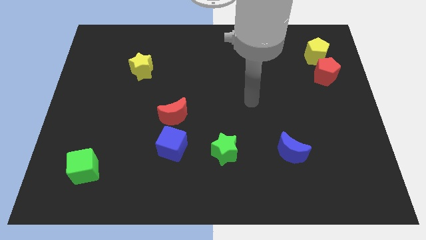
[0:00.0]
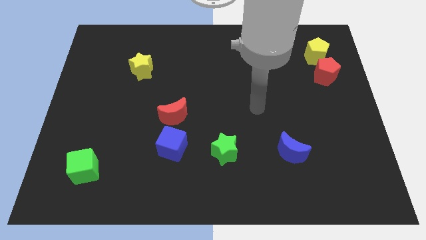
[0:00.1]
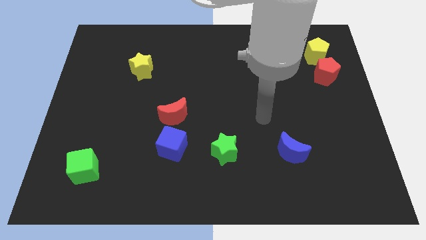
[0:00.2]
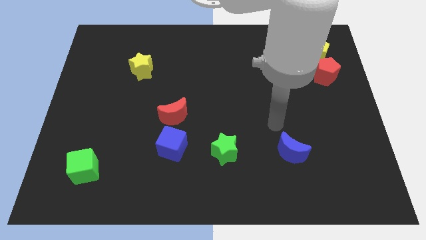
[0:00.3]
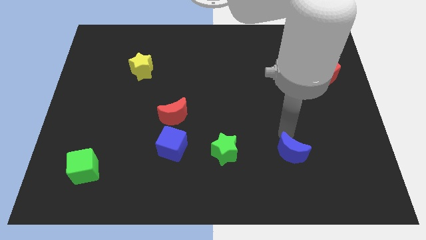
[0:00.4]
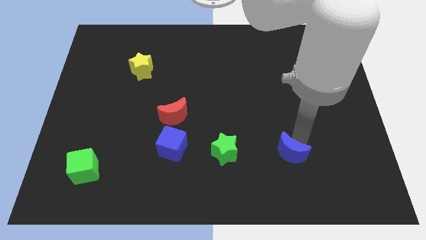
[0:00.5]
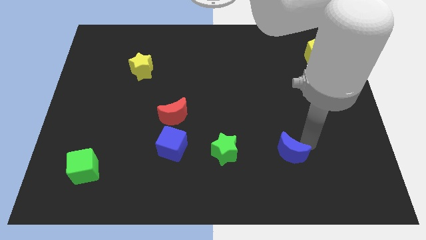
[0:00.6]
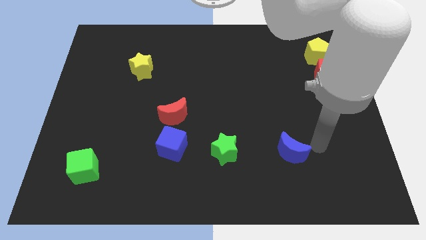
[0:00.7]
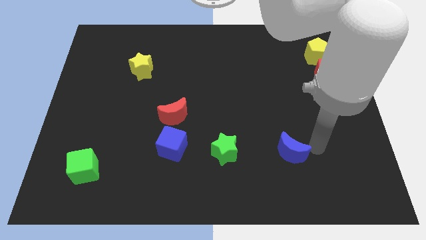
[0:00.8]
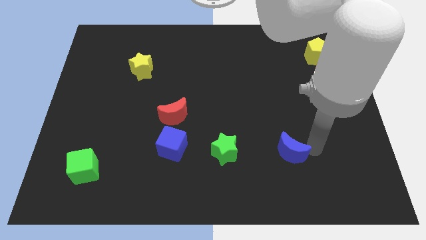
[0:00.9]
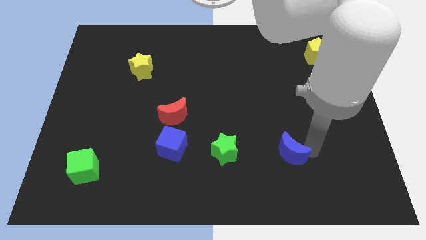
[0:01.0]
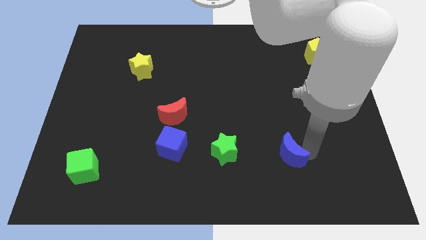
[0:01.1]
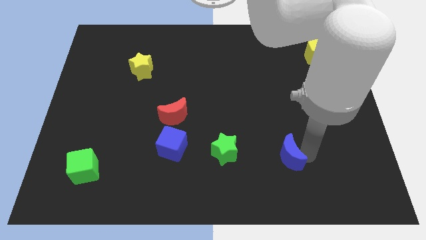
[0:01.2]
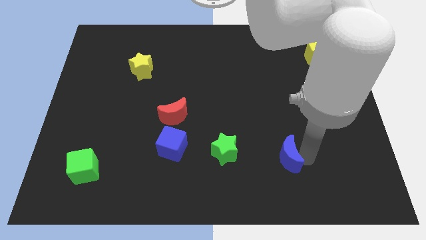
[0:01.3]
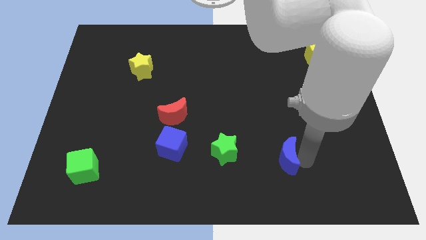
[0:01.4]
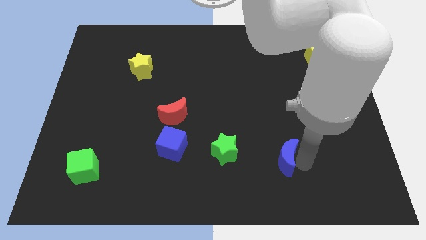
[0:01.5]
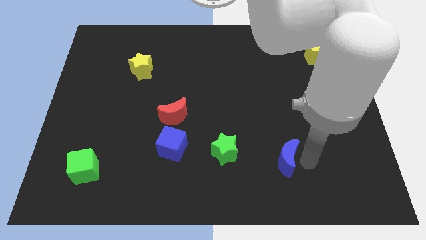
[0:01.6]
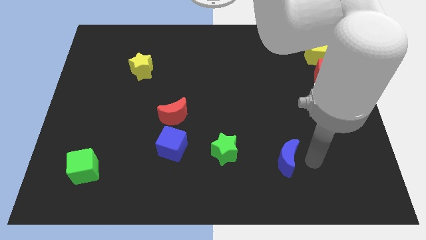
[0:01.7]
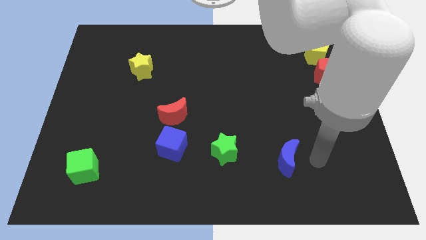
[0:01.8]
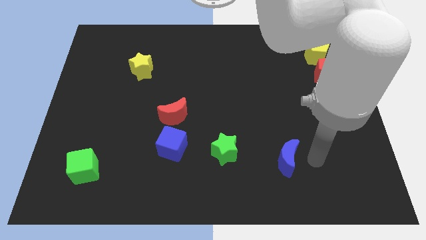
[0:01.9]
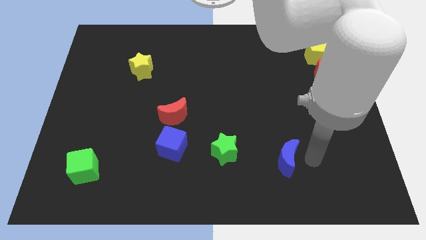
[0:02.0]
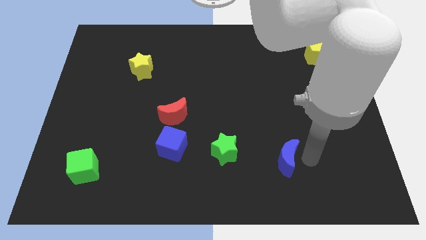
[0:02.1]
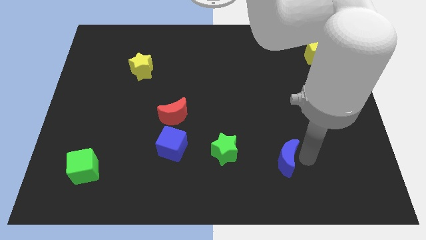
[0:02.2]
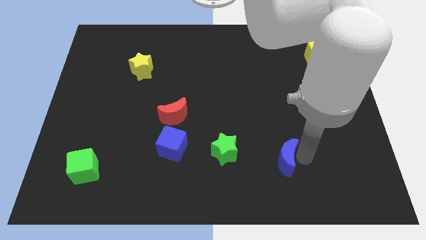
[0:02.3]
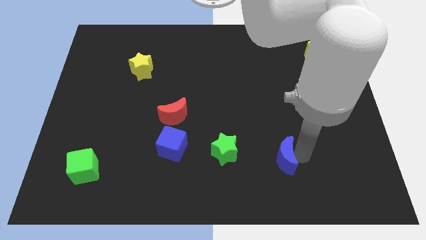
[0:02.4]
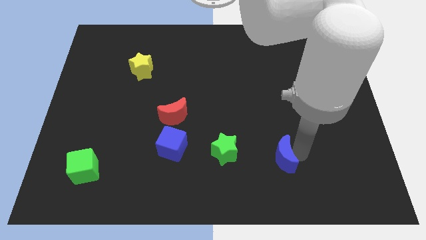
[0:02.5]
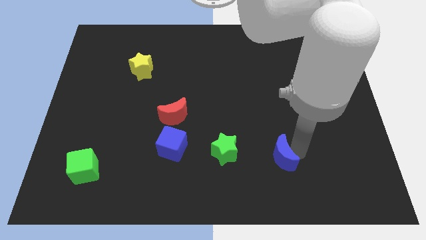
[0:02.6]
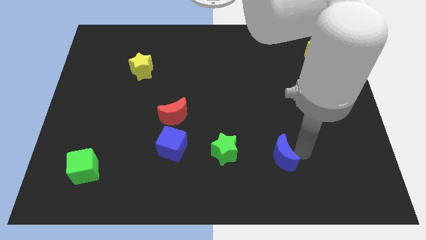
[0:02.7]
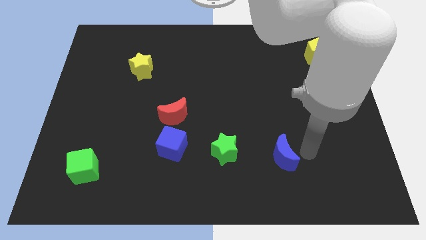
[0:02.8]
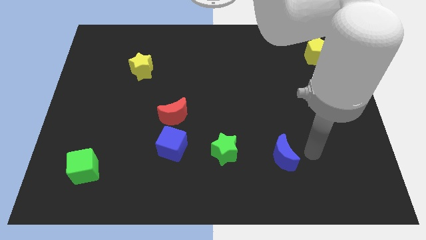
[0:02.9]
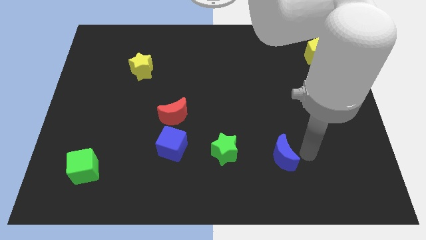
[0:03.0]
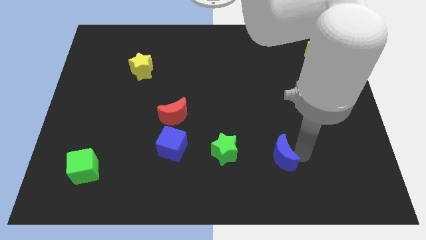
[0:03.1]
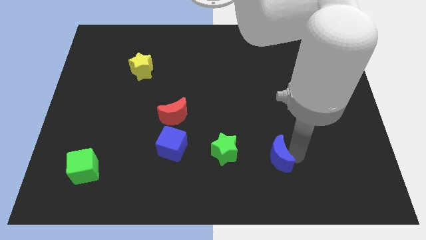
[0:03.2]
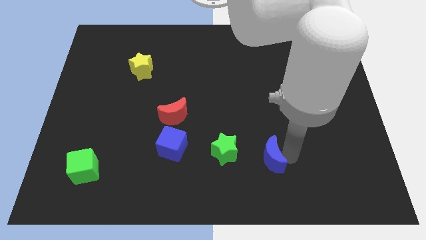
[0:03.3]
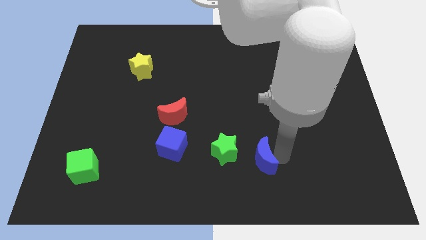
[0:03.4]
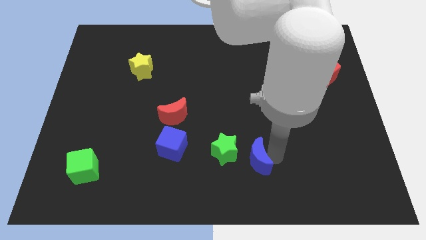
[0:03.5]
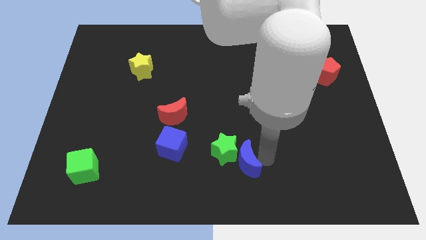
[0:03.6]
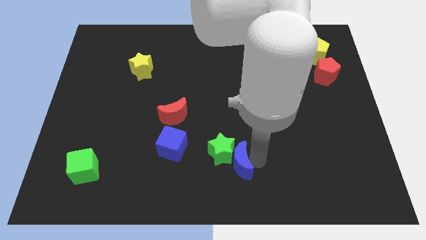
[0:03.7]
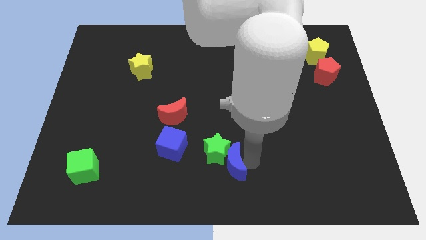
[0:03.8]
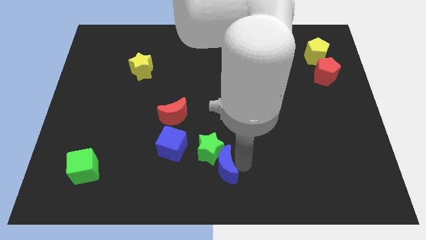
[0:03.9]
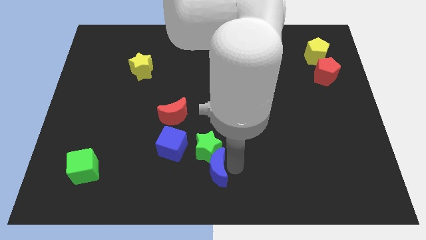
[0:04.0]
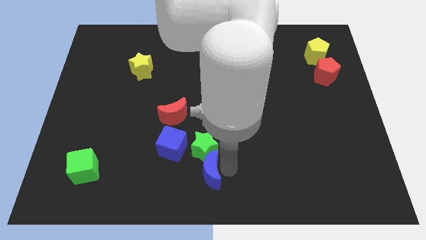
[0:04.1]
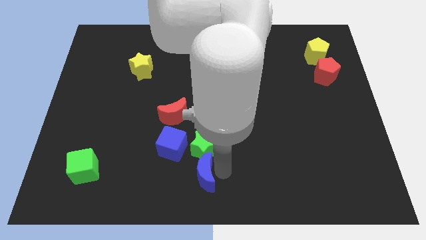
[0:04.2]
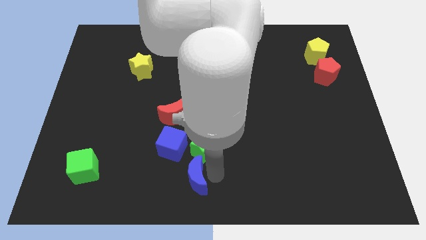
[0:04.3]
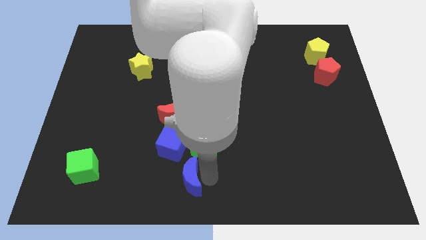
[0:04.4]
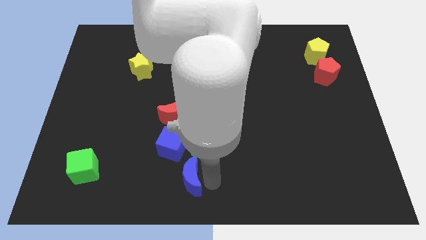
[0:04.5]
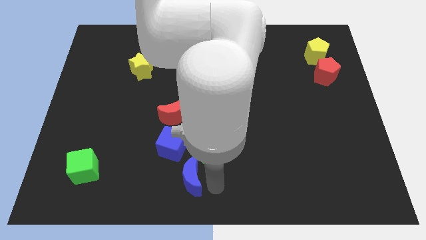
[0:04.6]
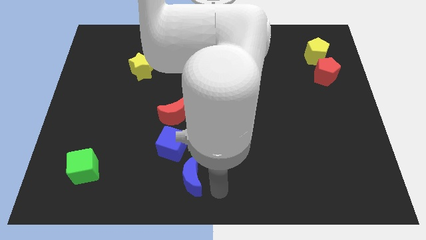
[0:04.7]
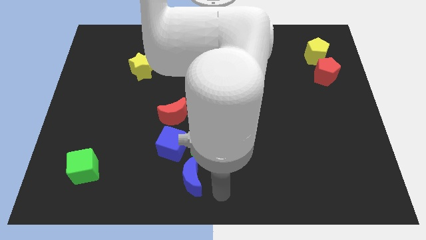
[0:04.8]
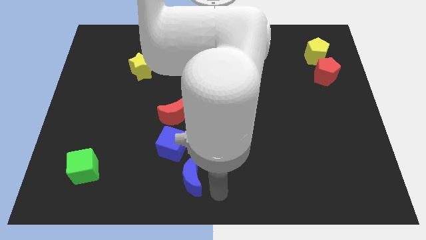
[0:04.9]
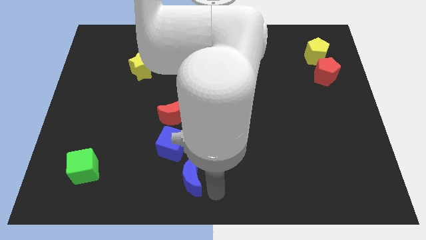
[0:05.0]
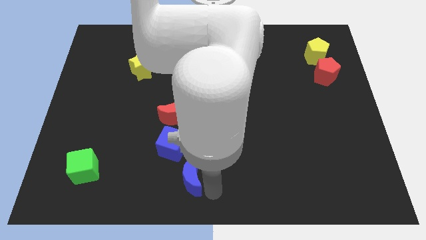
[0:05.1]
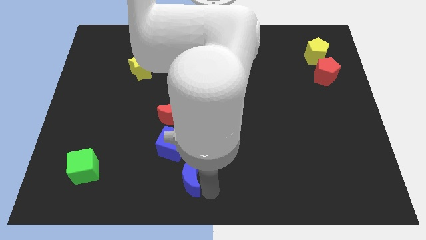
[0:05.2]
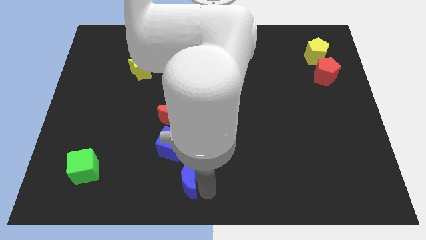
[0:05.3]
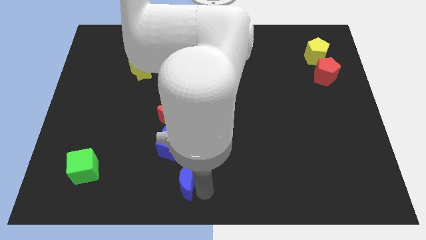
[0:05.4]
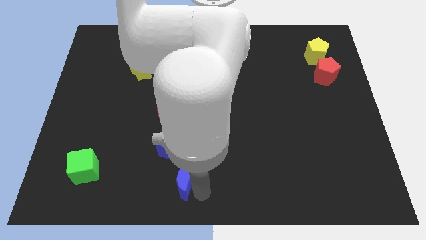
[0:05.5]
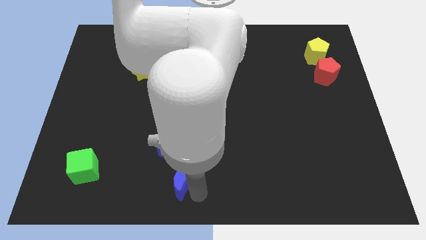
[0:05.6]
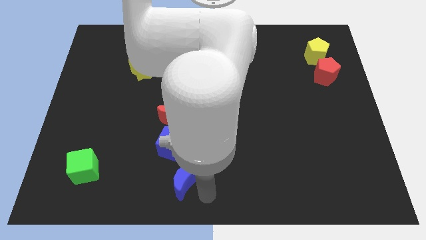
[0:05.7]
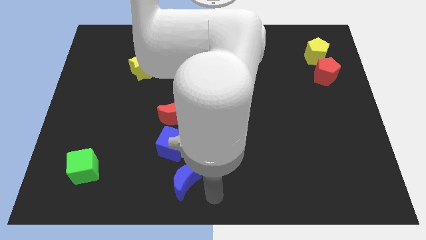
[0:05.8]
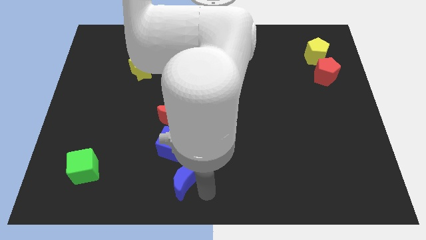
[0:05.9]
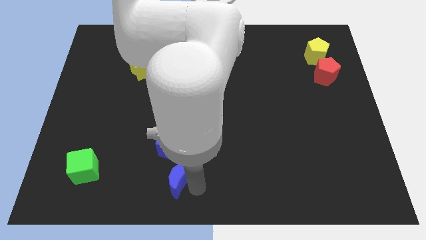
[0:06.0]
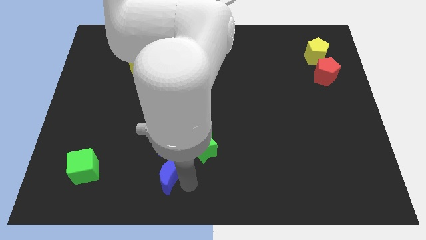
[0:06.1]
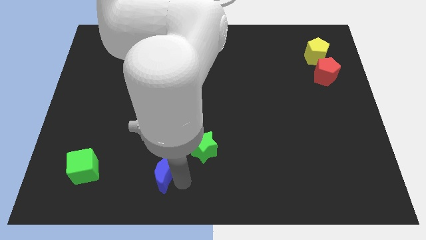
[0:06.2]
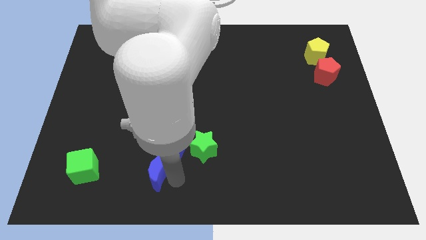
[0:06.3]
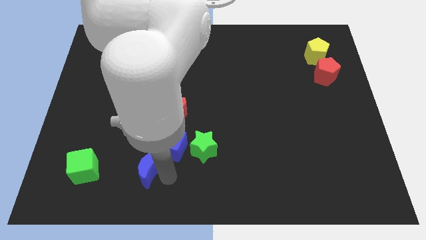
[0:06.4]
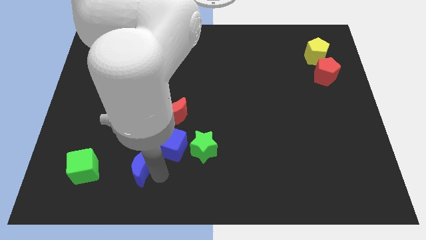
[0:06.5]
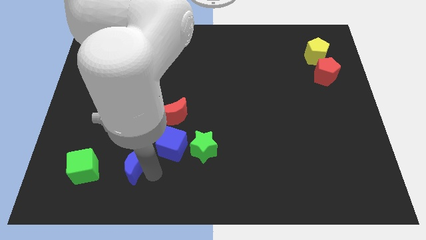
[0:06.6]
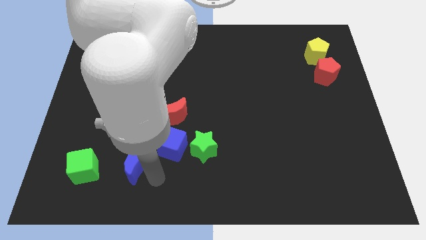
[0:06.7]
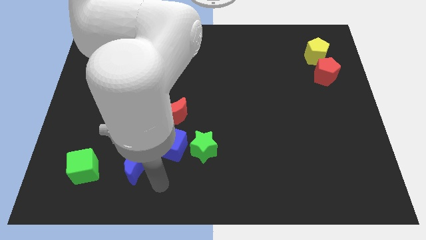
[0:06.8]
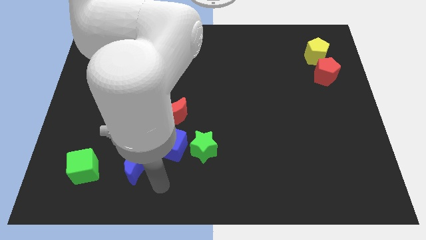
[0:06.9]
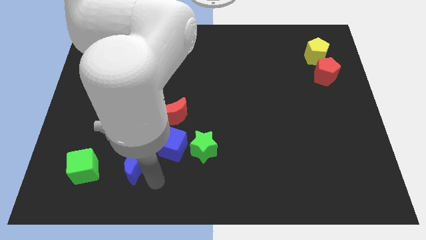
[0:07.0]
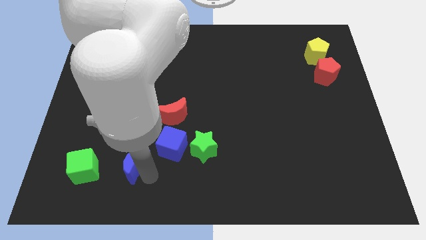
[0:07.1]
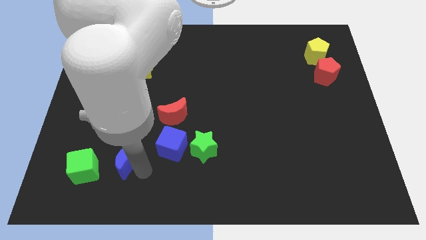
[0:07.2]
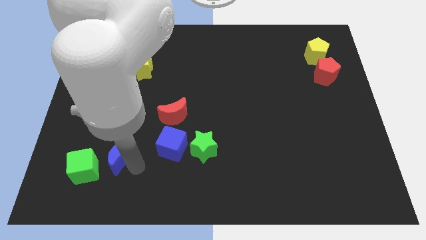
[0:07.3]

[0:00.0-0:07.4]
slide the blue moon to the top right side of the green cube
